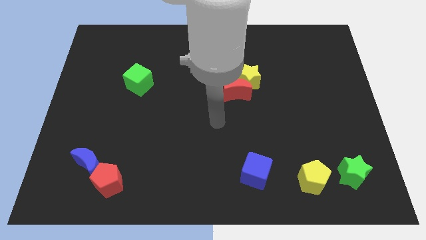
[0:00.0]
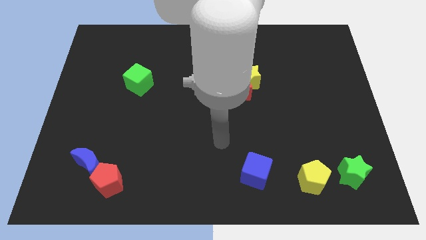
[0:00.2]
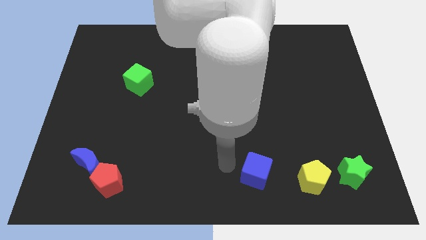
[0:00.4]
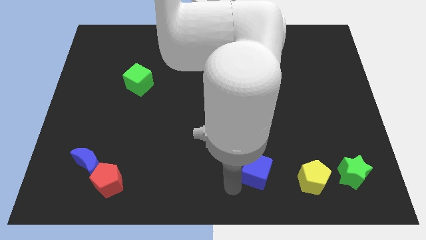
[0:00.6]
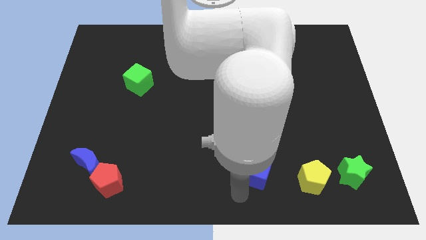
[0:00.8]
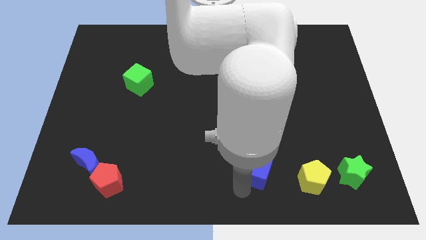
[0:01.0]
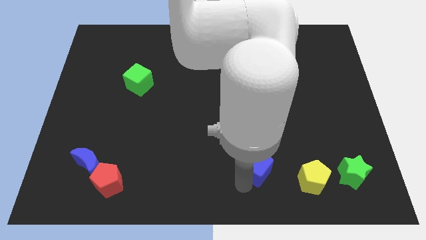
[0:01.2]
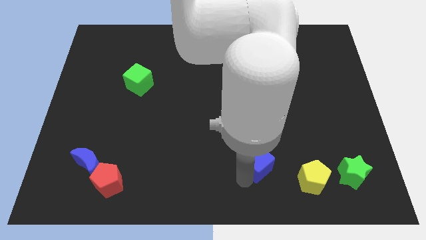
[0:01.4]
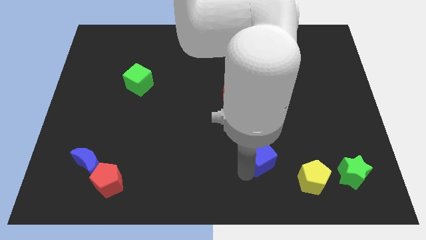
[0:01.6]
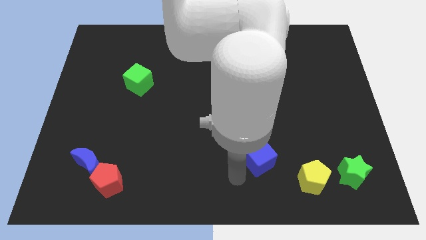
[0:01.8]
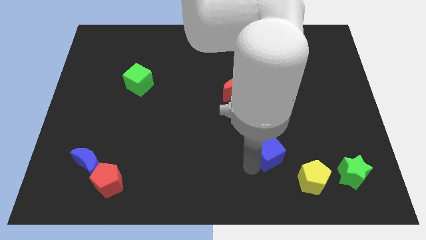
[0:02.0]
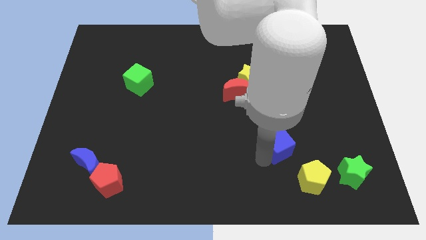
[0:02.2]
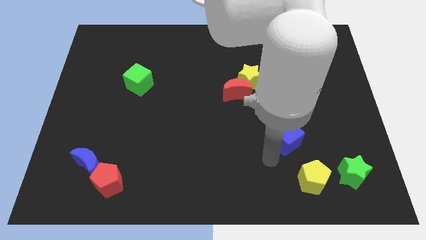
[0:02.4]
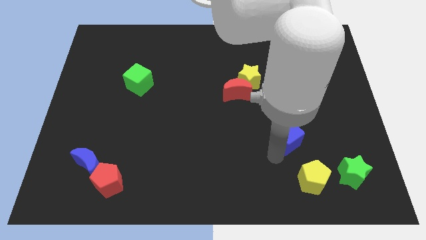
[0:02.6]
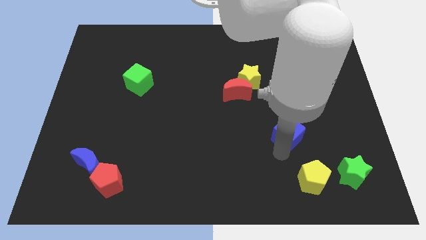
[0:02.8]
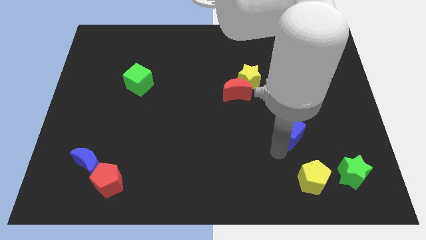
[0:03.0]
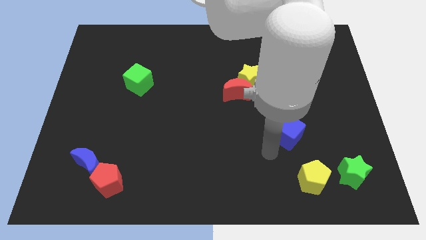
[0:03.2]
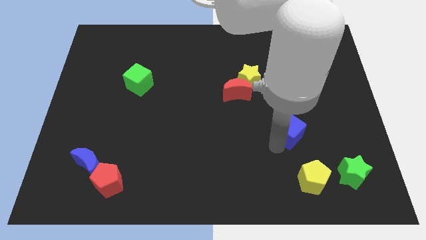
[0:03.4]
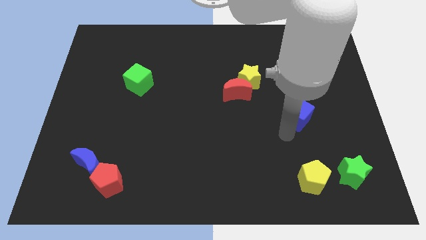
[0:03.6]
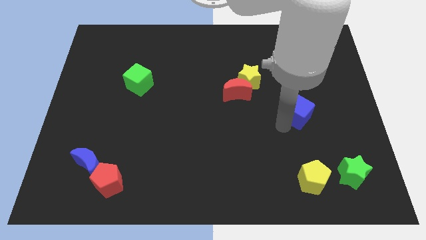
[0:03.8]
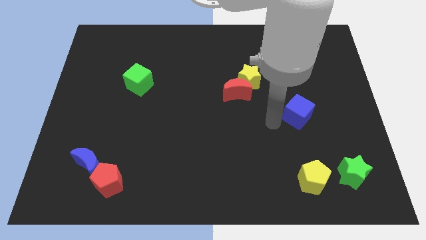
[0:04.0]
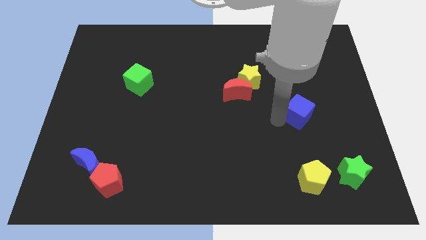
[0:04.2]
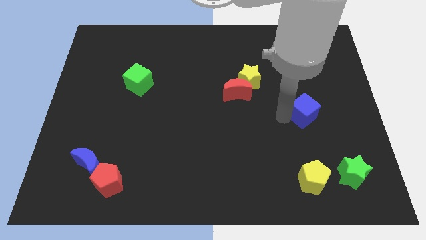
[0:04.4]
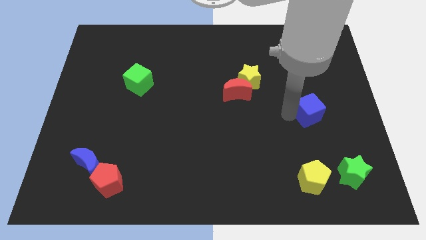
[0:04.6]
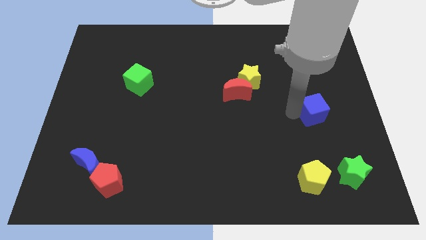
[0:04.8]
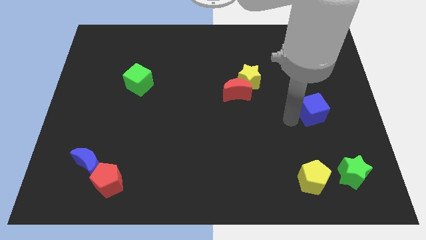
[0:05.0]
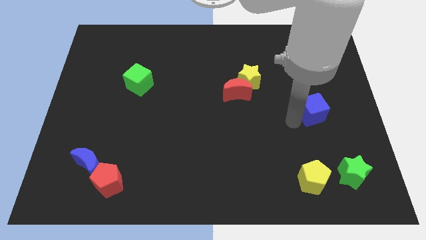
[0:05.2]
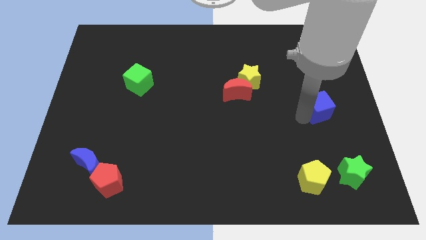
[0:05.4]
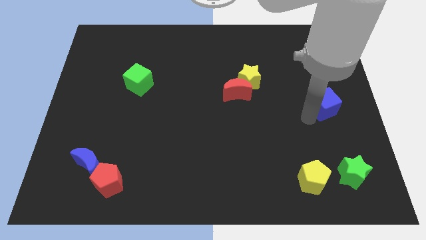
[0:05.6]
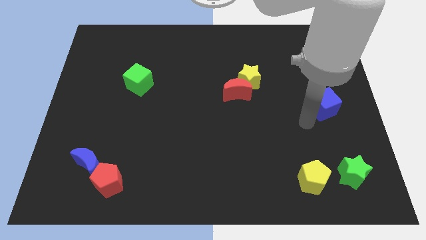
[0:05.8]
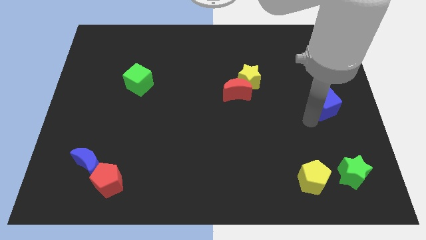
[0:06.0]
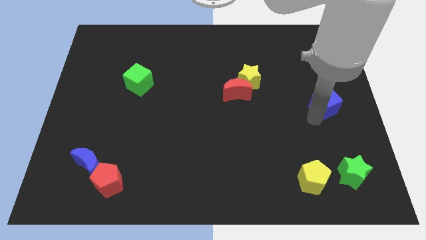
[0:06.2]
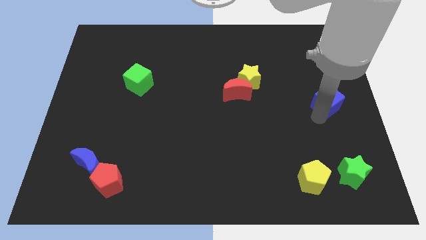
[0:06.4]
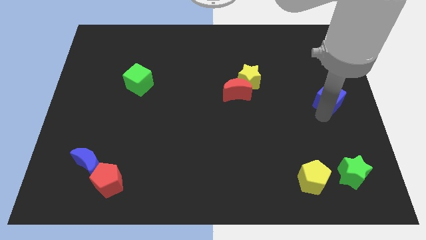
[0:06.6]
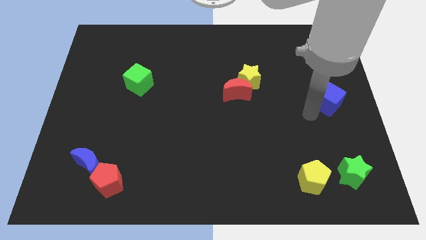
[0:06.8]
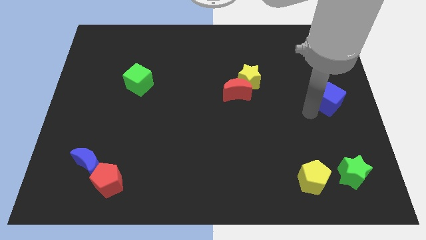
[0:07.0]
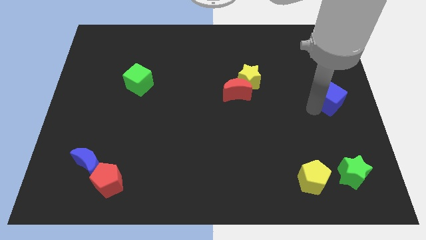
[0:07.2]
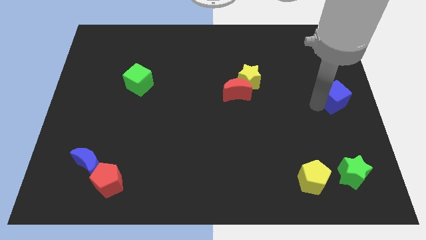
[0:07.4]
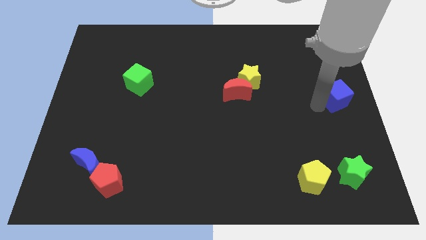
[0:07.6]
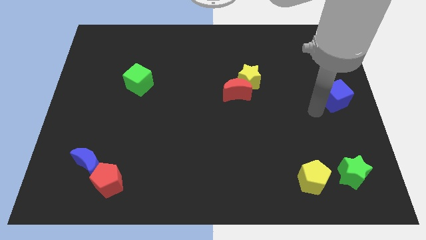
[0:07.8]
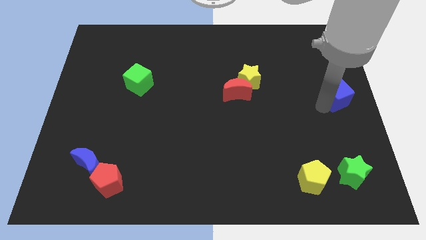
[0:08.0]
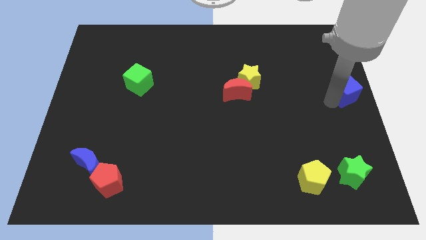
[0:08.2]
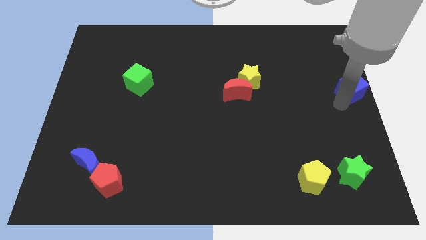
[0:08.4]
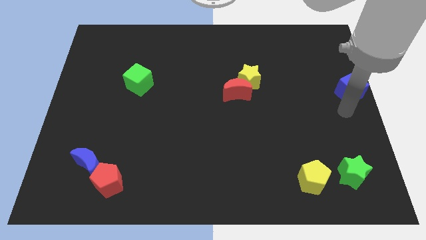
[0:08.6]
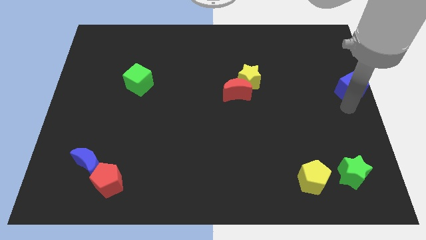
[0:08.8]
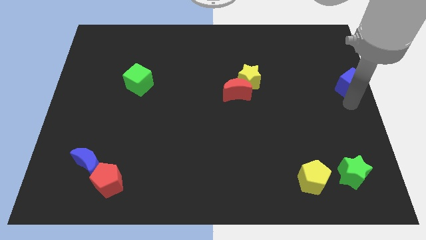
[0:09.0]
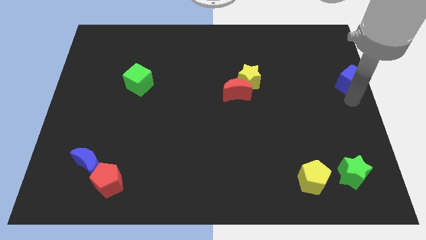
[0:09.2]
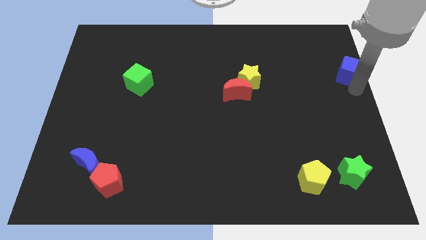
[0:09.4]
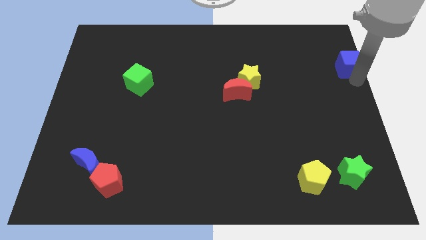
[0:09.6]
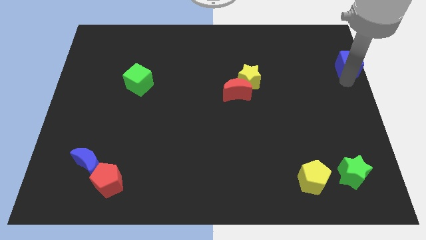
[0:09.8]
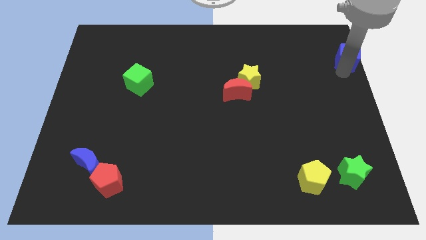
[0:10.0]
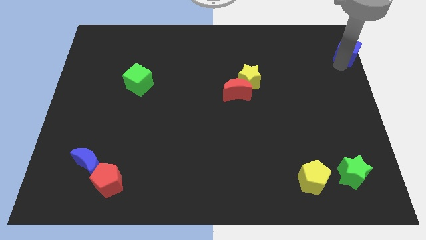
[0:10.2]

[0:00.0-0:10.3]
push the blue cube to the top right corner

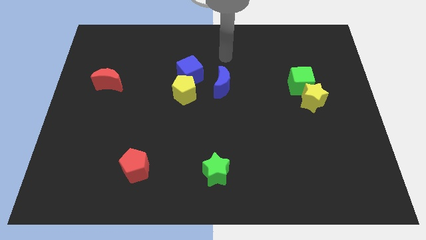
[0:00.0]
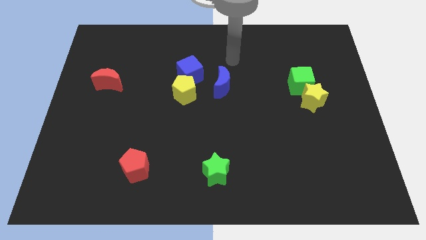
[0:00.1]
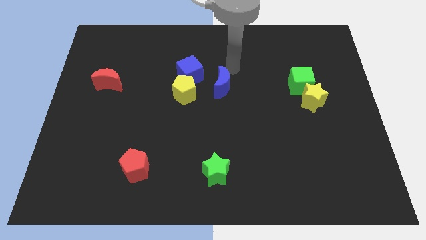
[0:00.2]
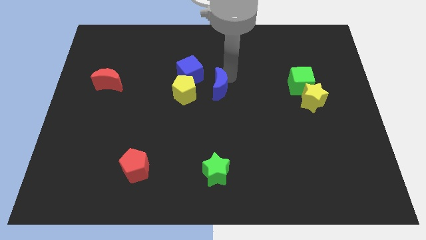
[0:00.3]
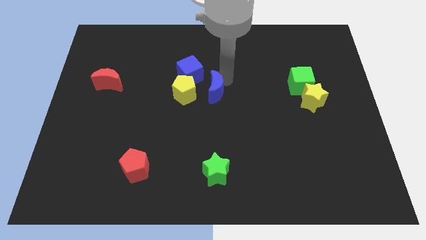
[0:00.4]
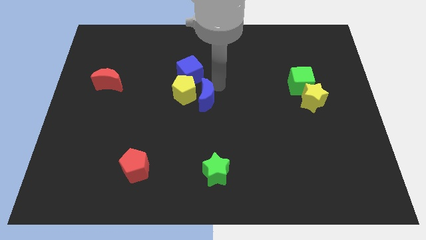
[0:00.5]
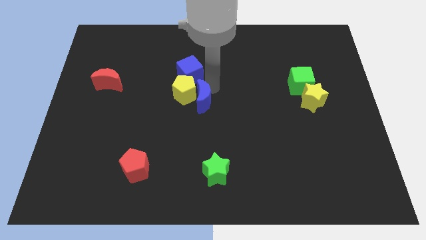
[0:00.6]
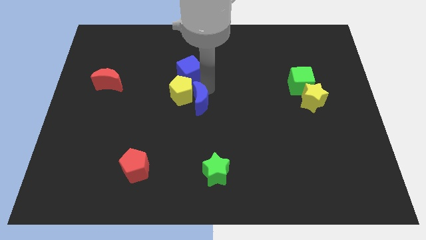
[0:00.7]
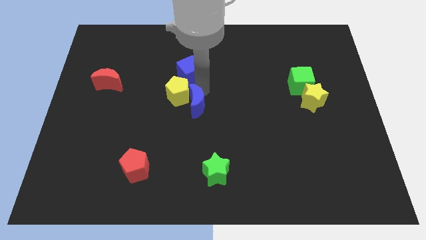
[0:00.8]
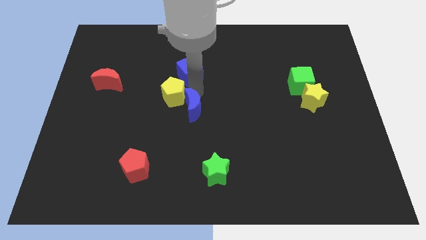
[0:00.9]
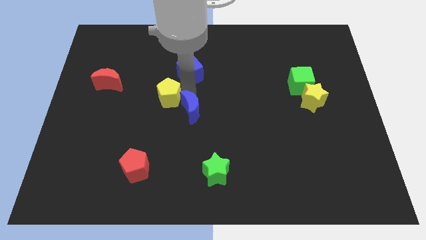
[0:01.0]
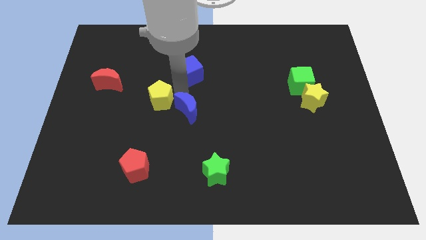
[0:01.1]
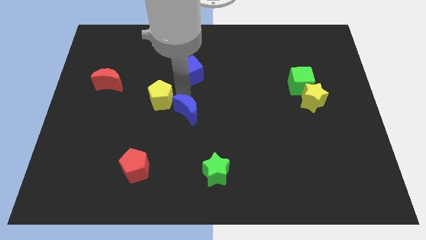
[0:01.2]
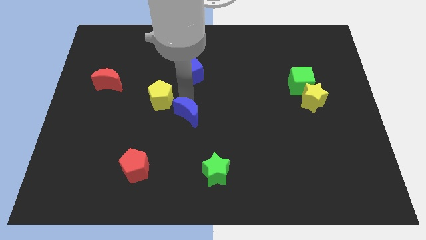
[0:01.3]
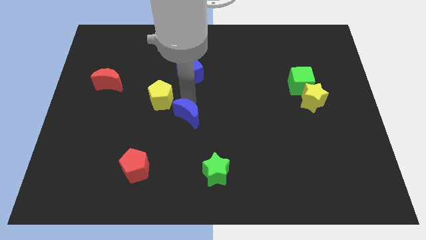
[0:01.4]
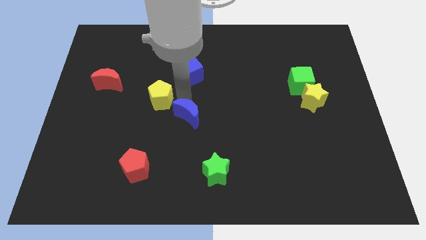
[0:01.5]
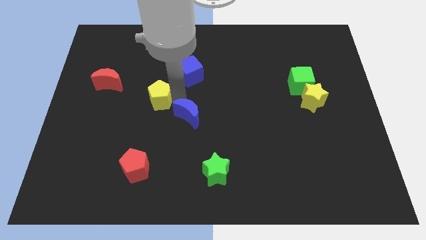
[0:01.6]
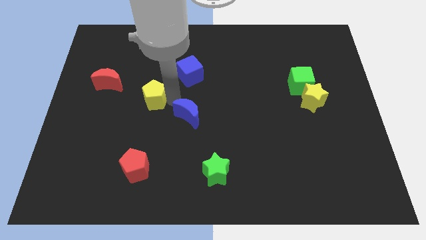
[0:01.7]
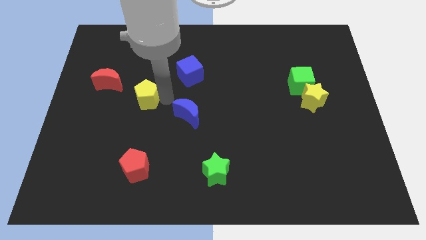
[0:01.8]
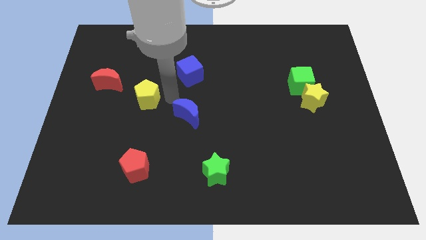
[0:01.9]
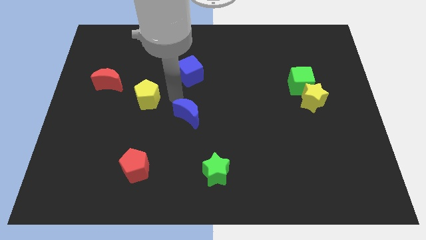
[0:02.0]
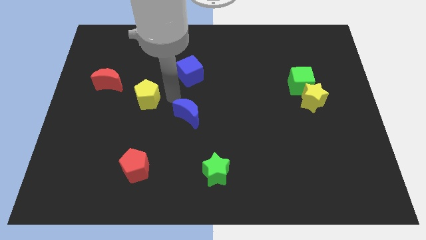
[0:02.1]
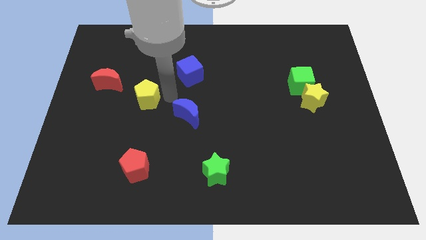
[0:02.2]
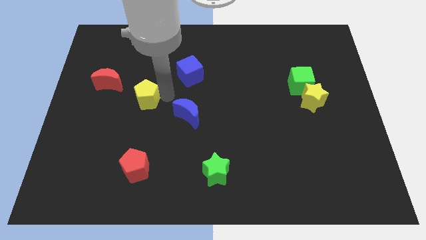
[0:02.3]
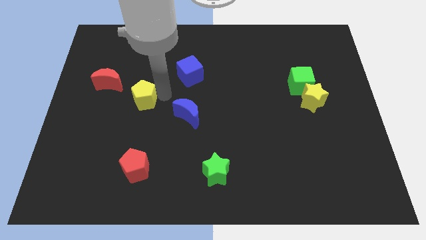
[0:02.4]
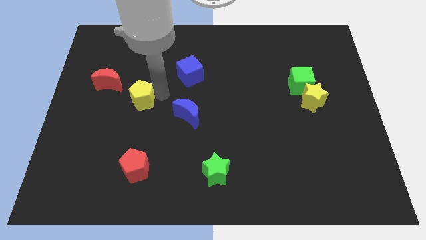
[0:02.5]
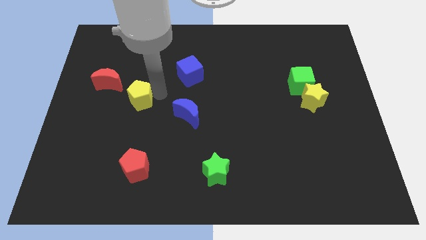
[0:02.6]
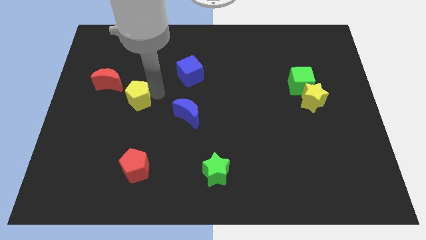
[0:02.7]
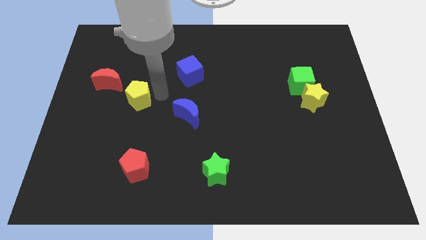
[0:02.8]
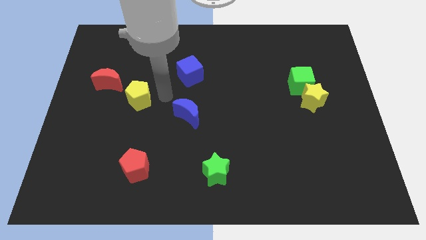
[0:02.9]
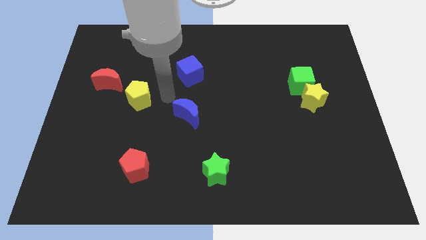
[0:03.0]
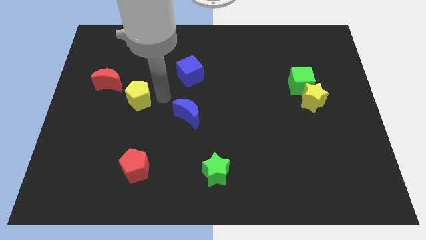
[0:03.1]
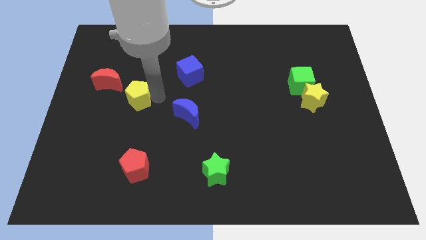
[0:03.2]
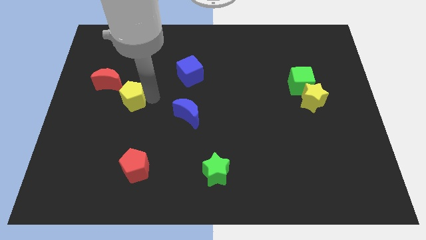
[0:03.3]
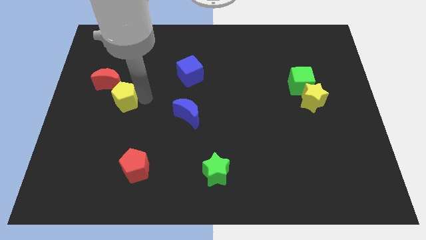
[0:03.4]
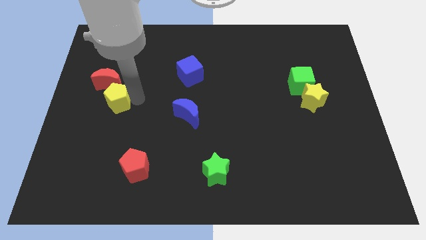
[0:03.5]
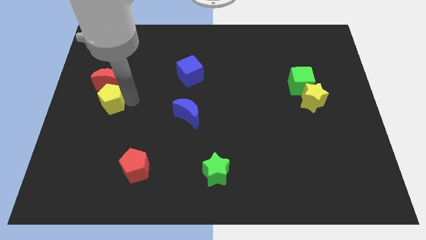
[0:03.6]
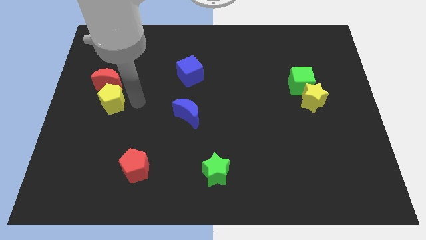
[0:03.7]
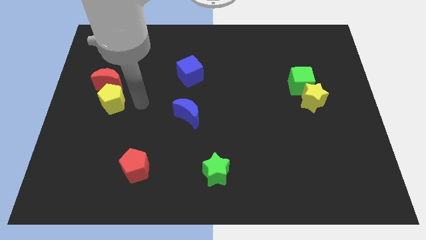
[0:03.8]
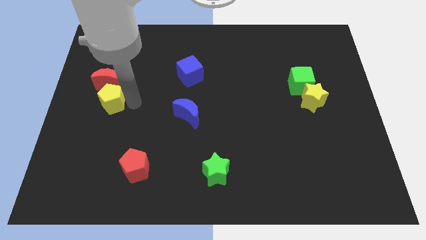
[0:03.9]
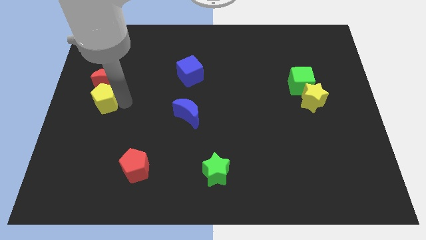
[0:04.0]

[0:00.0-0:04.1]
push the yellow pentagon to the center left
